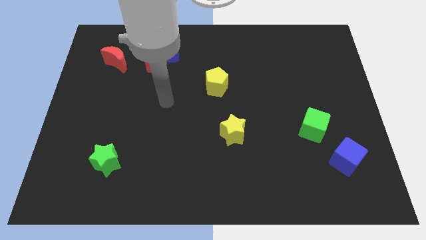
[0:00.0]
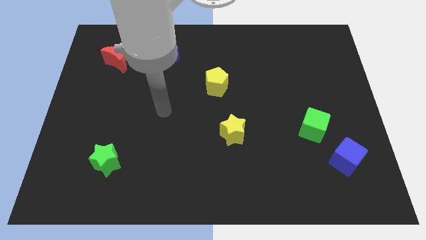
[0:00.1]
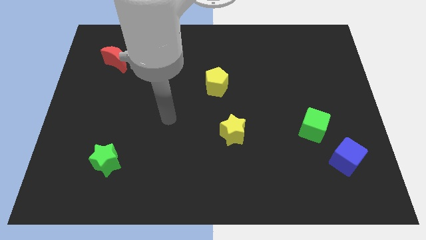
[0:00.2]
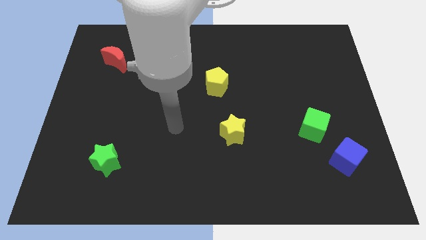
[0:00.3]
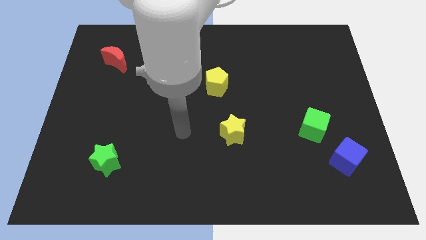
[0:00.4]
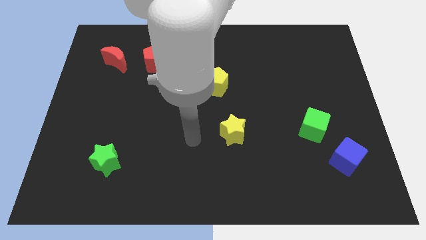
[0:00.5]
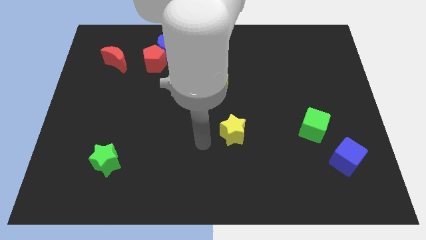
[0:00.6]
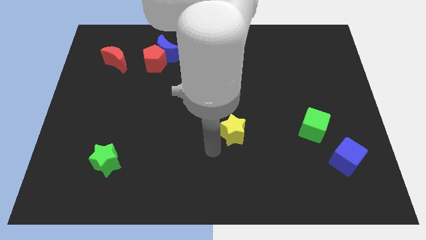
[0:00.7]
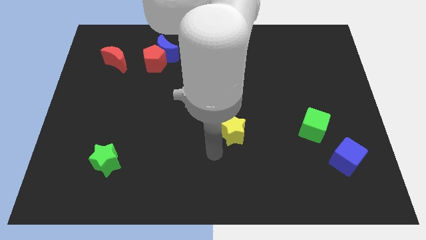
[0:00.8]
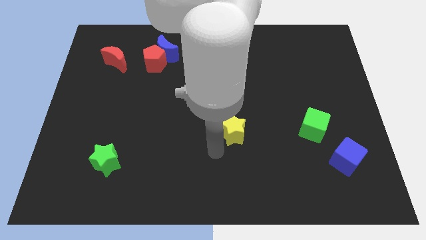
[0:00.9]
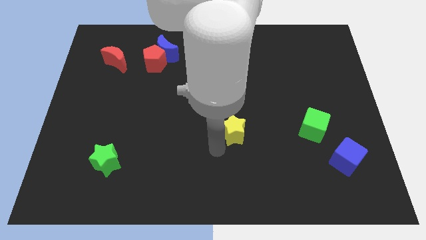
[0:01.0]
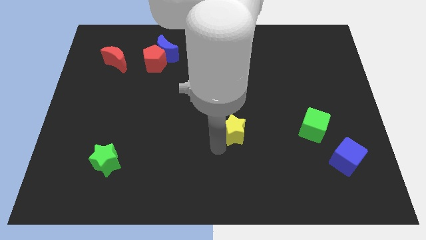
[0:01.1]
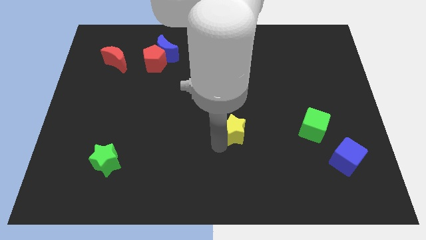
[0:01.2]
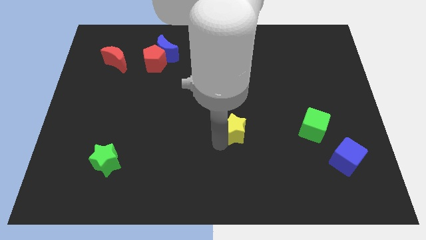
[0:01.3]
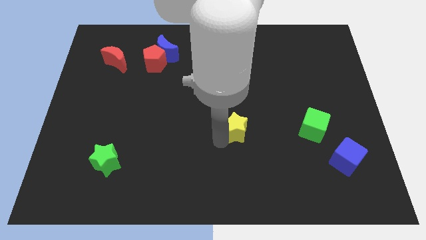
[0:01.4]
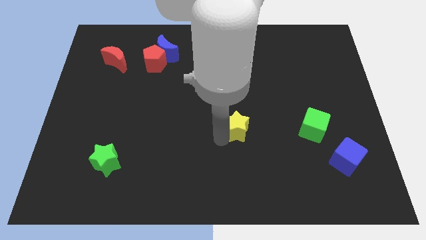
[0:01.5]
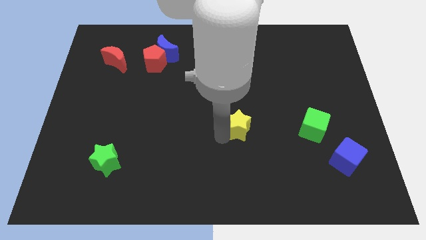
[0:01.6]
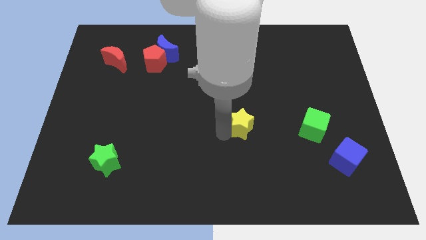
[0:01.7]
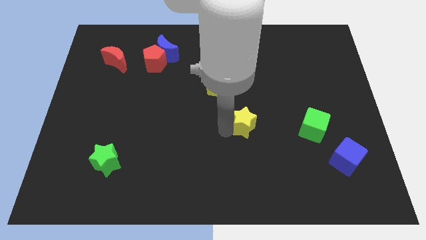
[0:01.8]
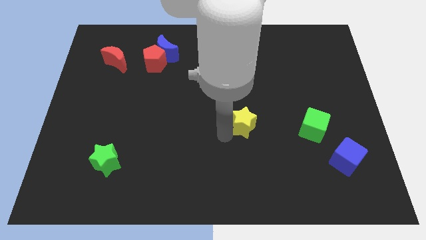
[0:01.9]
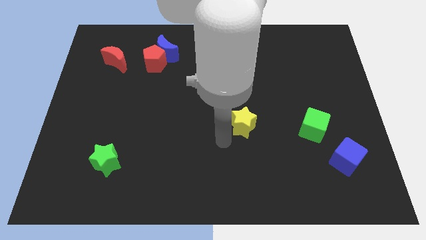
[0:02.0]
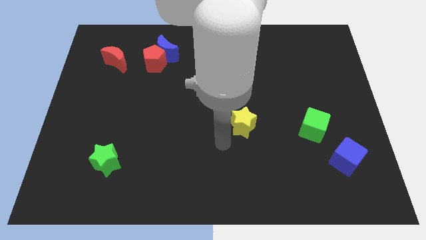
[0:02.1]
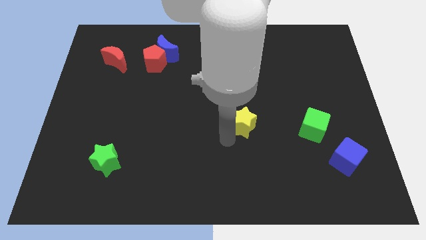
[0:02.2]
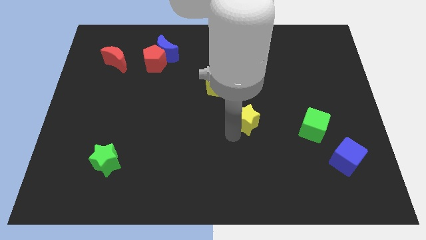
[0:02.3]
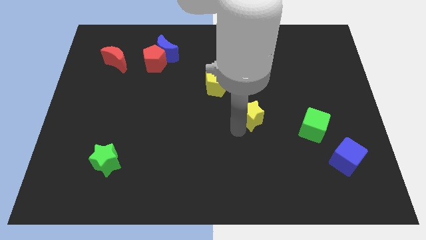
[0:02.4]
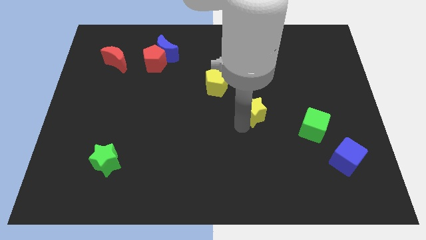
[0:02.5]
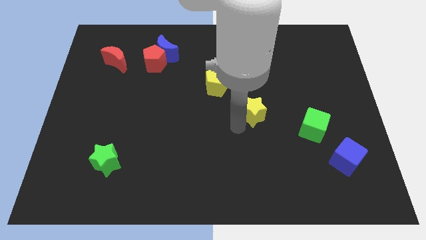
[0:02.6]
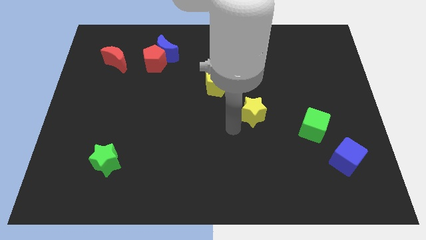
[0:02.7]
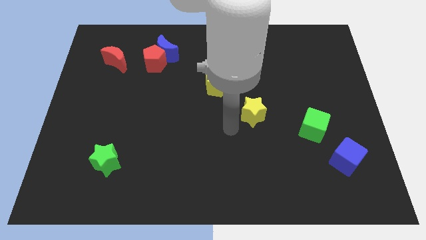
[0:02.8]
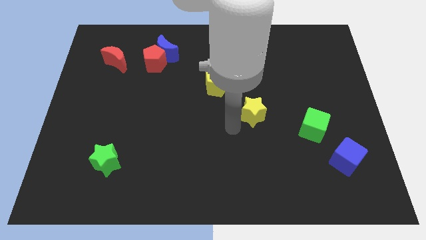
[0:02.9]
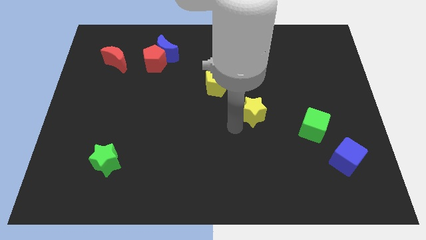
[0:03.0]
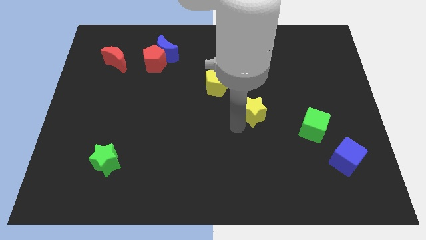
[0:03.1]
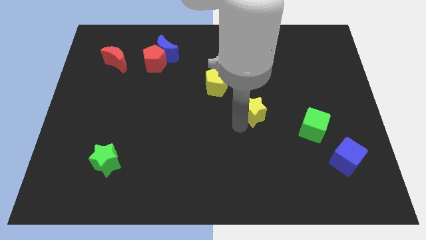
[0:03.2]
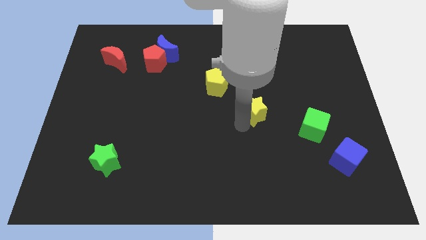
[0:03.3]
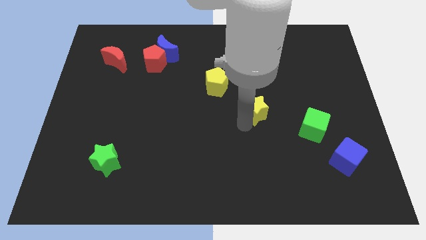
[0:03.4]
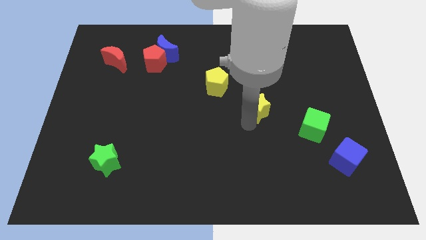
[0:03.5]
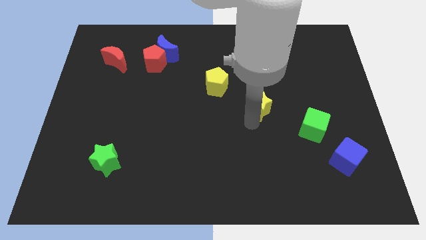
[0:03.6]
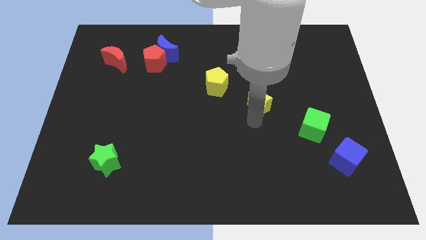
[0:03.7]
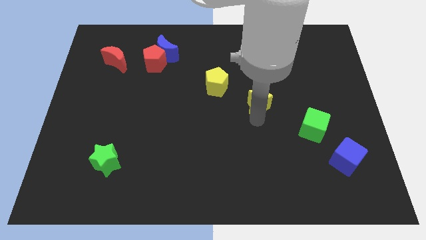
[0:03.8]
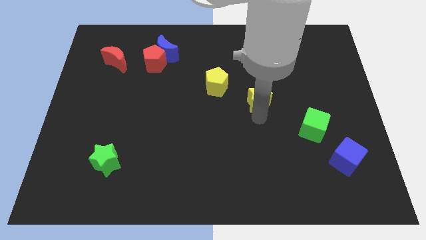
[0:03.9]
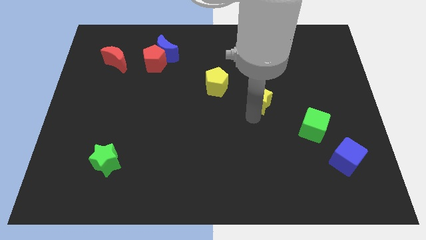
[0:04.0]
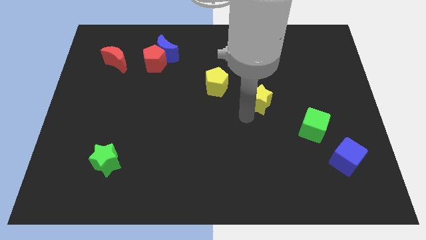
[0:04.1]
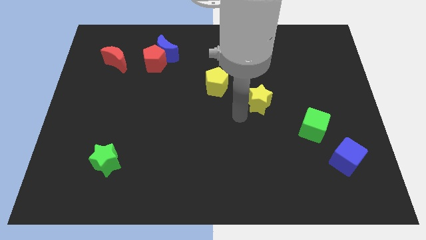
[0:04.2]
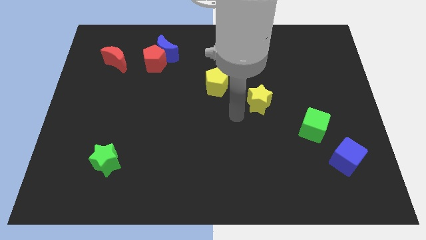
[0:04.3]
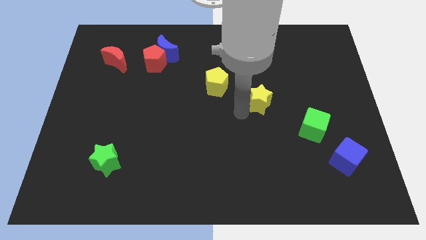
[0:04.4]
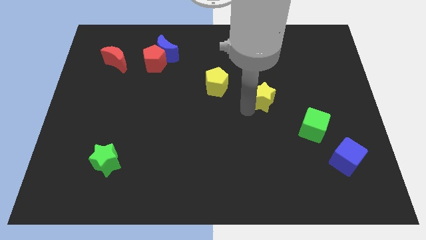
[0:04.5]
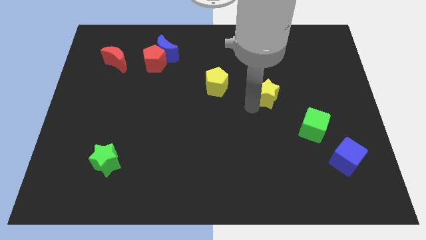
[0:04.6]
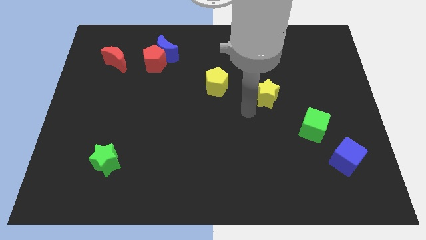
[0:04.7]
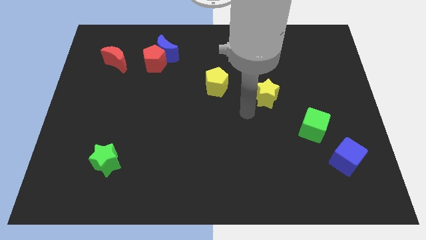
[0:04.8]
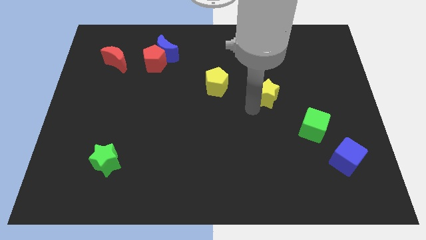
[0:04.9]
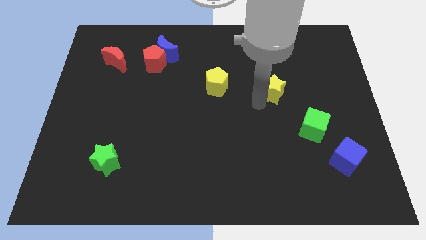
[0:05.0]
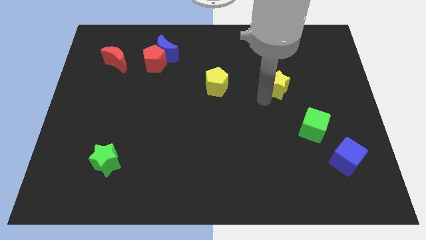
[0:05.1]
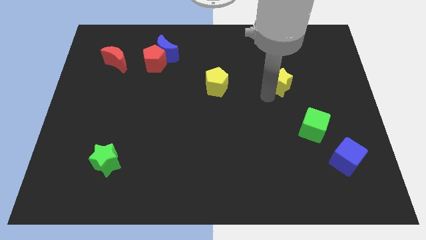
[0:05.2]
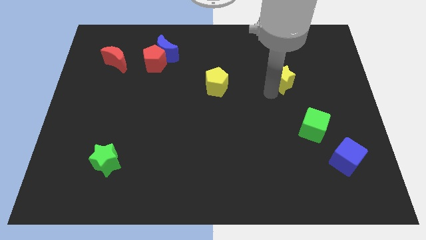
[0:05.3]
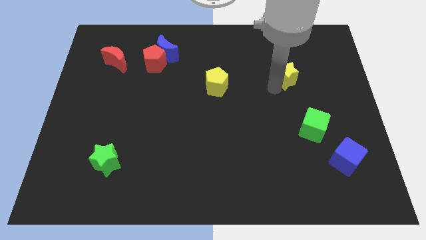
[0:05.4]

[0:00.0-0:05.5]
push the yellow star up and then right

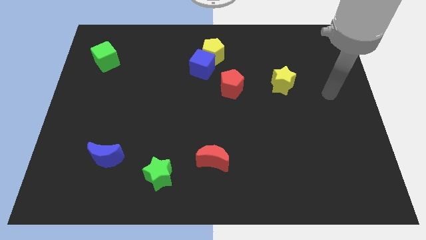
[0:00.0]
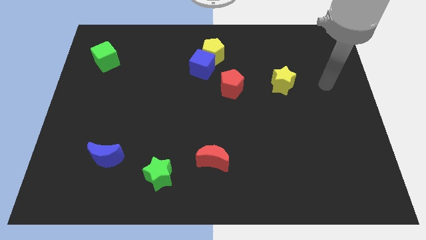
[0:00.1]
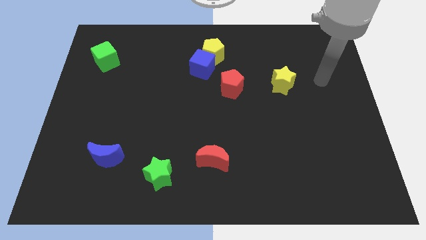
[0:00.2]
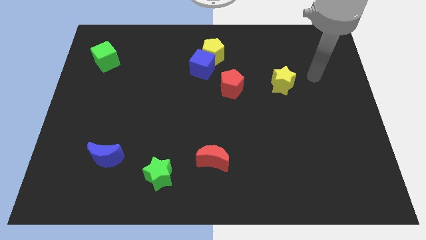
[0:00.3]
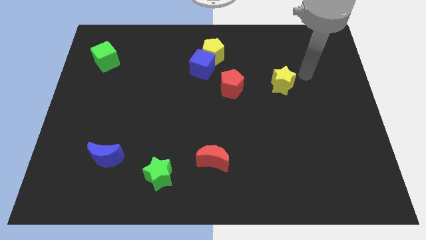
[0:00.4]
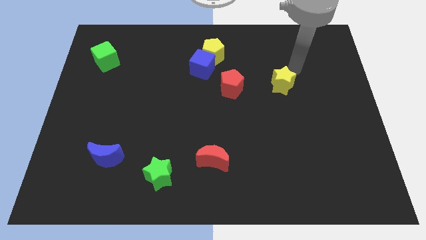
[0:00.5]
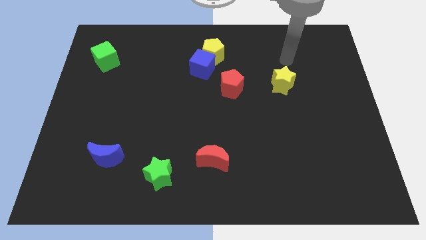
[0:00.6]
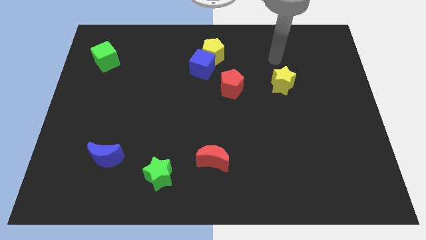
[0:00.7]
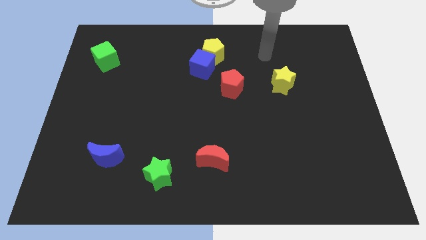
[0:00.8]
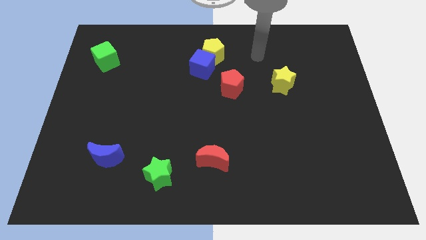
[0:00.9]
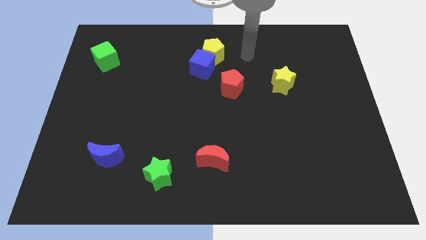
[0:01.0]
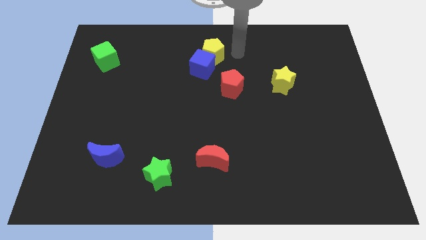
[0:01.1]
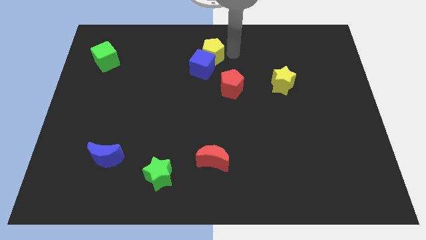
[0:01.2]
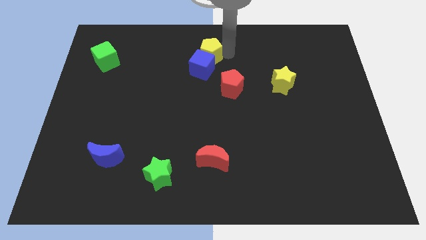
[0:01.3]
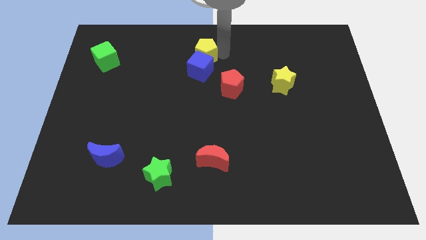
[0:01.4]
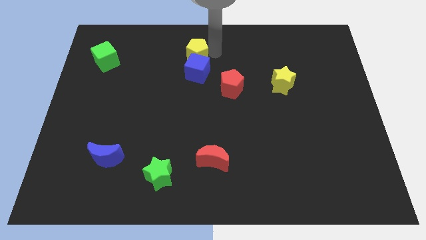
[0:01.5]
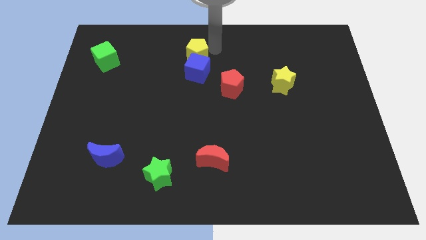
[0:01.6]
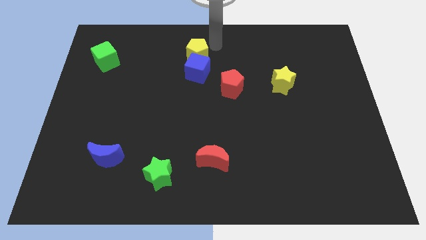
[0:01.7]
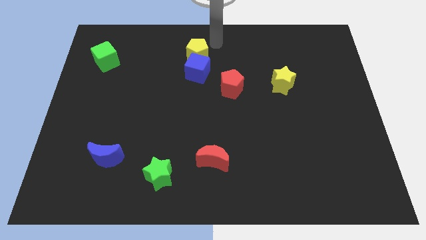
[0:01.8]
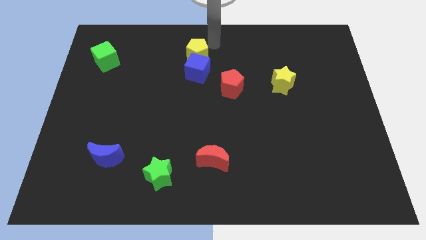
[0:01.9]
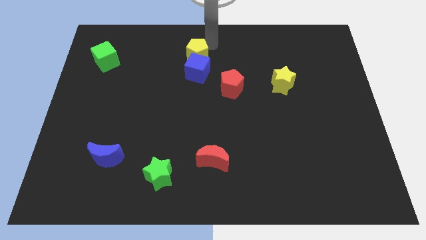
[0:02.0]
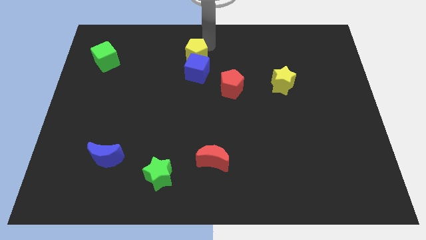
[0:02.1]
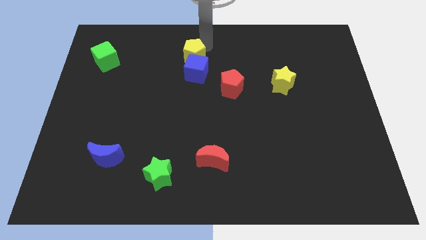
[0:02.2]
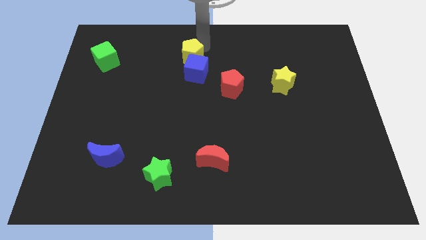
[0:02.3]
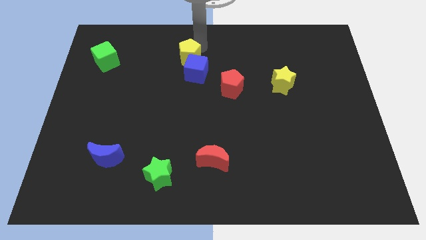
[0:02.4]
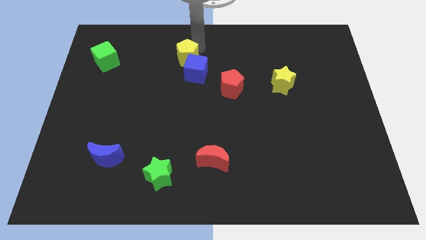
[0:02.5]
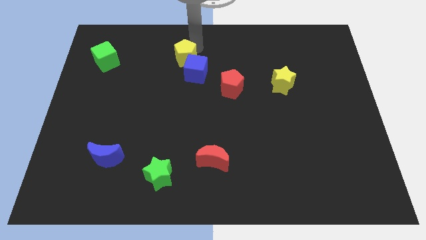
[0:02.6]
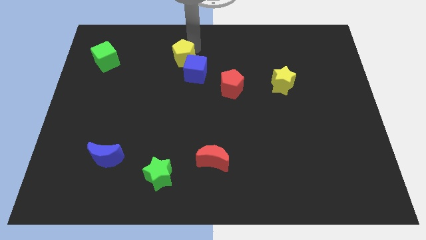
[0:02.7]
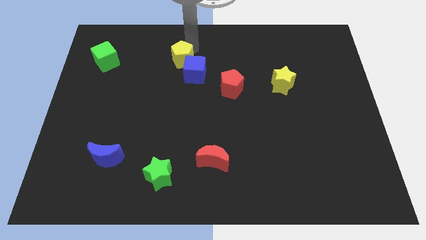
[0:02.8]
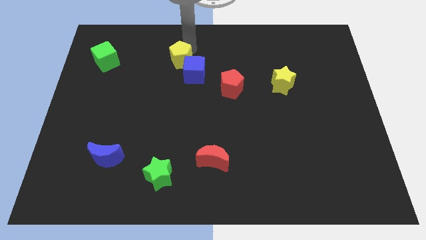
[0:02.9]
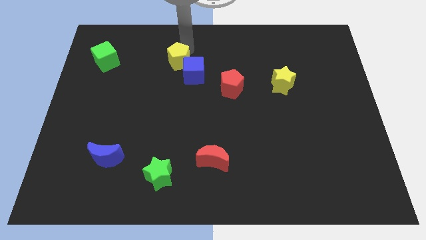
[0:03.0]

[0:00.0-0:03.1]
push the yellow pentagon down and left slightly
